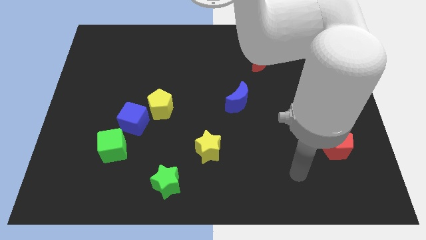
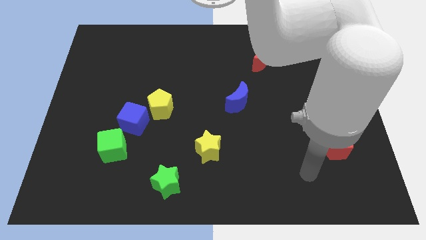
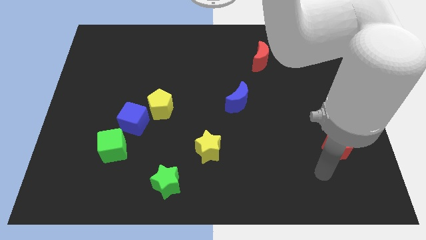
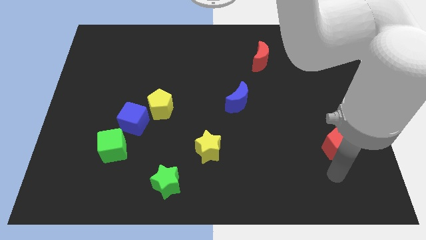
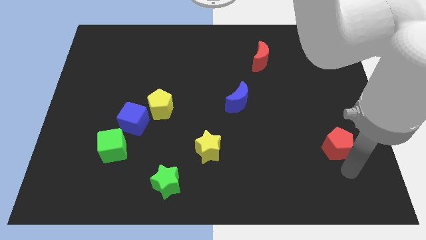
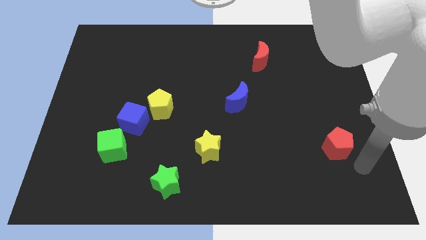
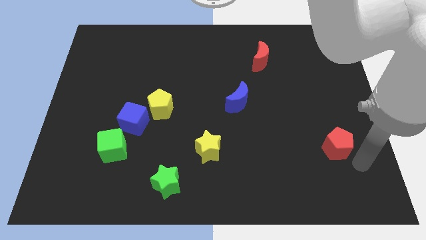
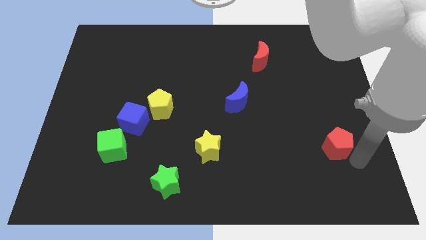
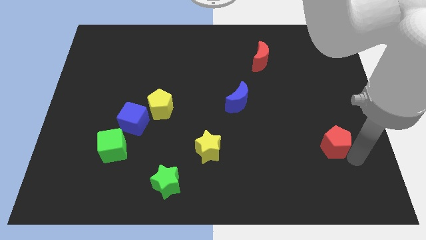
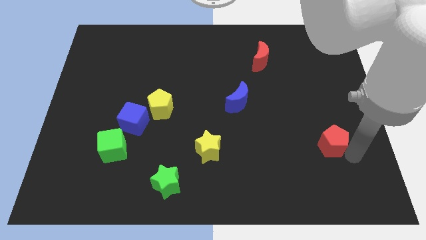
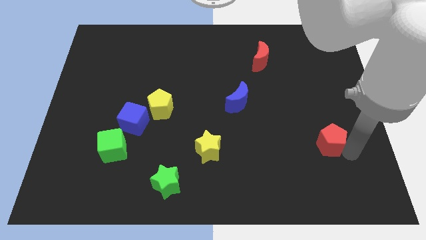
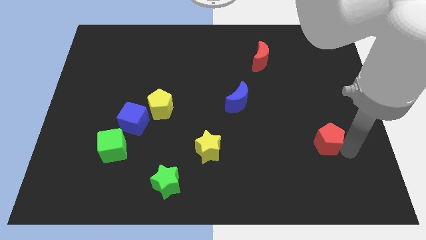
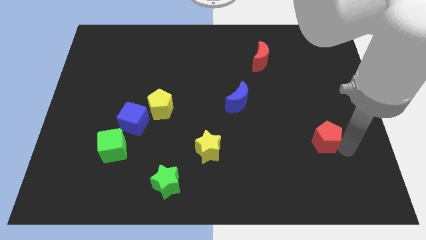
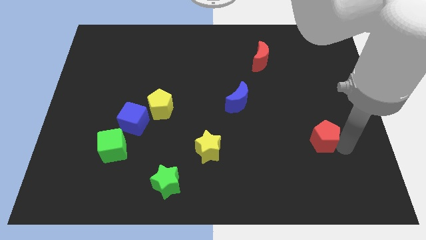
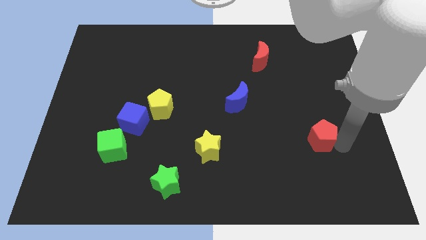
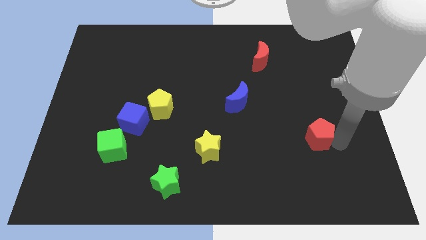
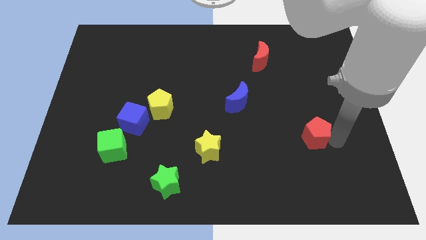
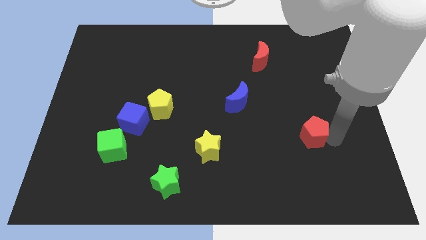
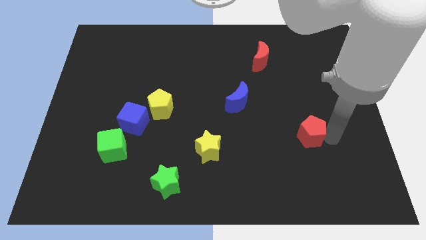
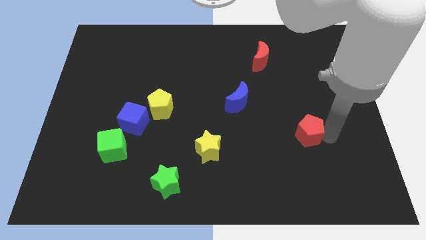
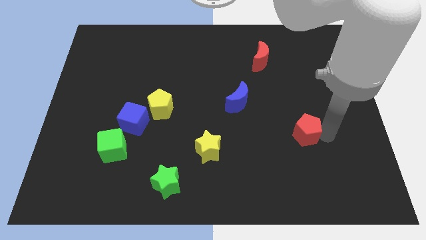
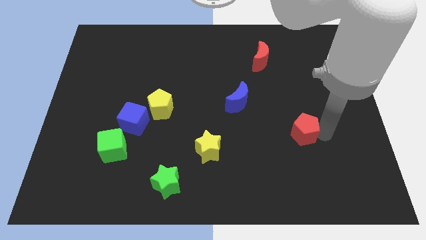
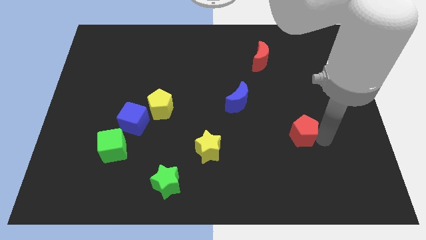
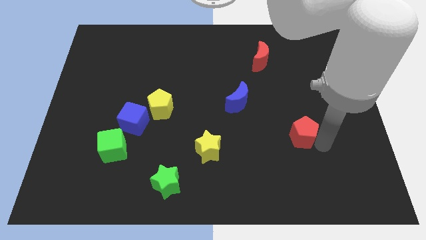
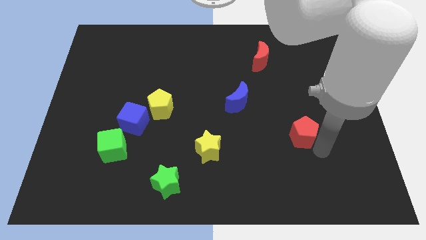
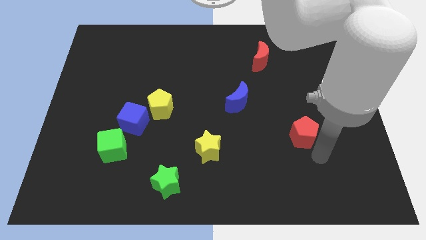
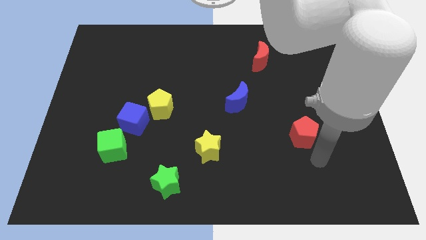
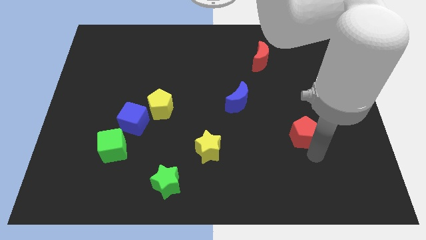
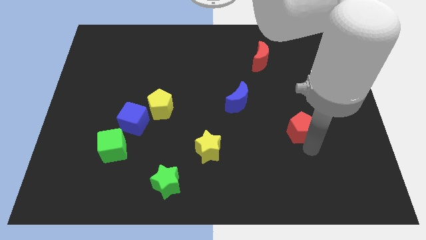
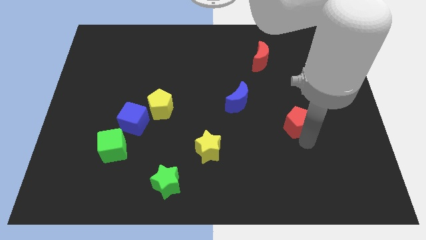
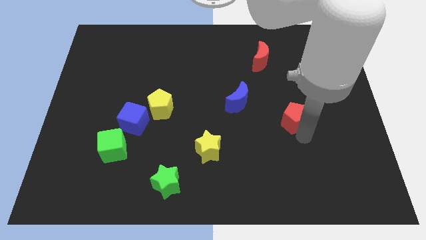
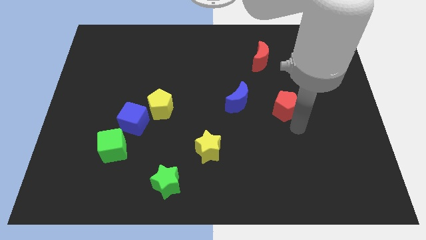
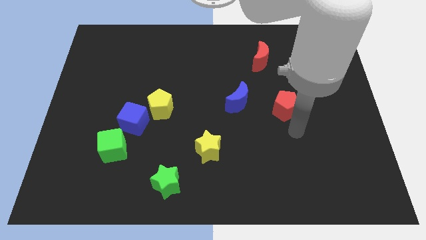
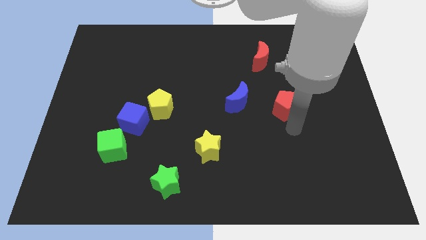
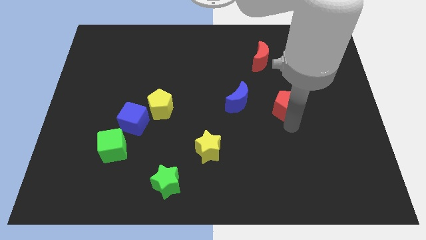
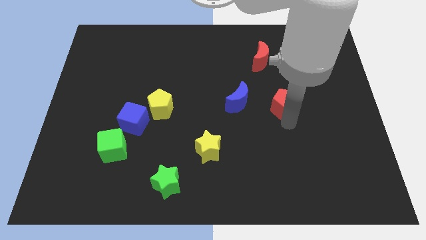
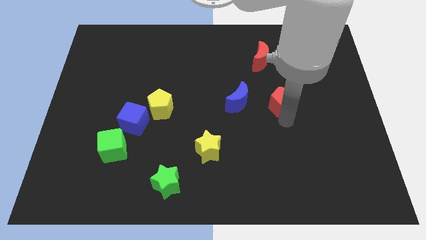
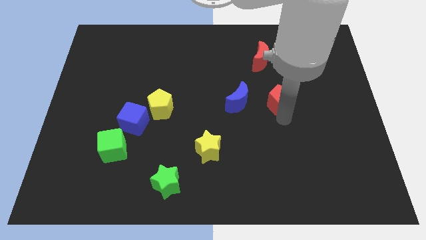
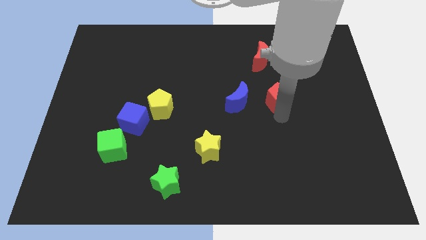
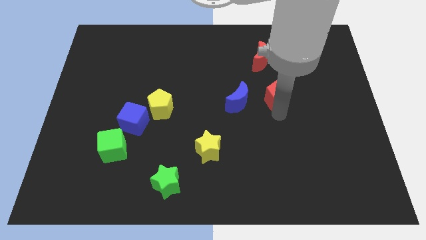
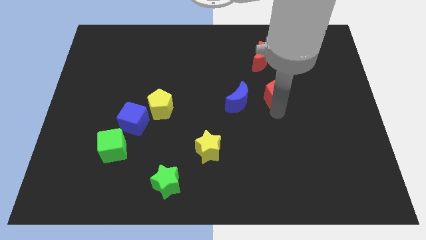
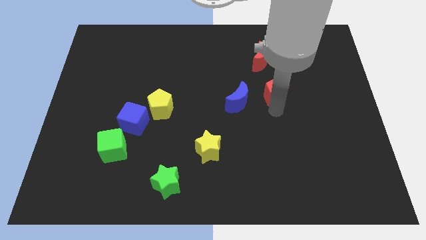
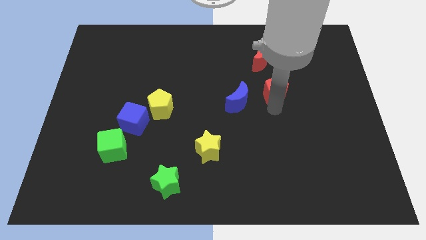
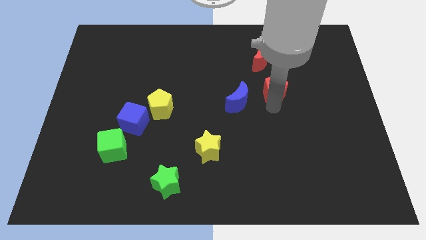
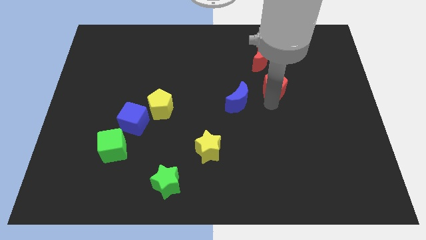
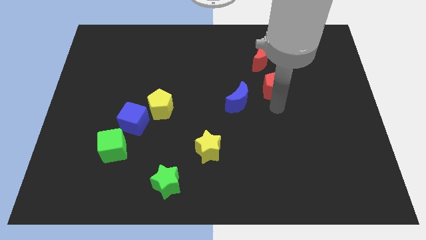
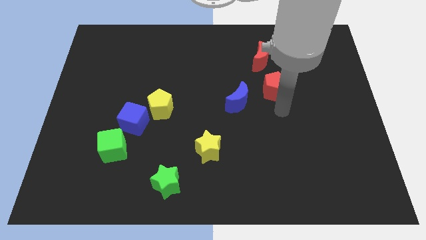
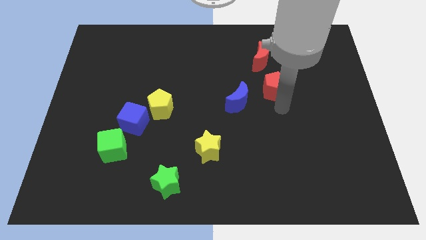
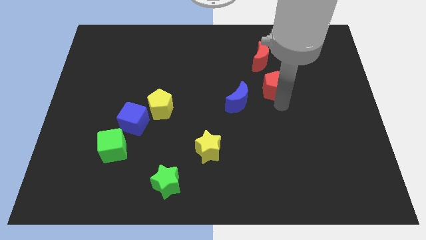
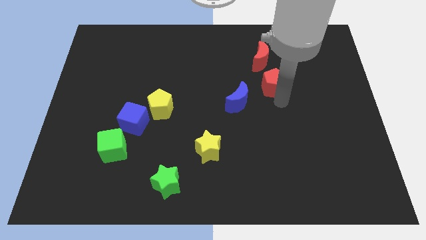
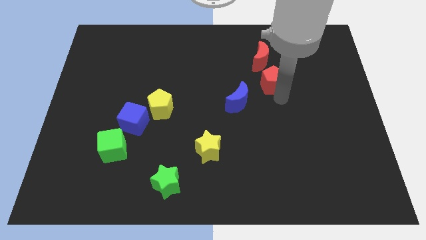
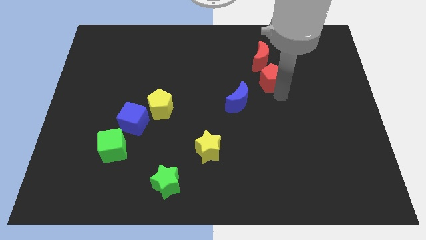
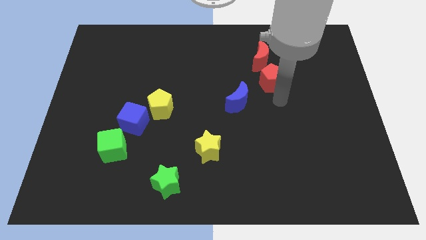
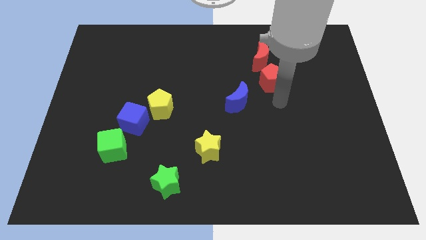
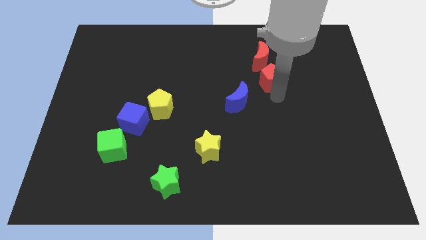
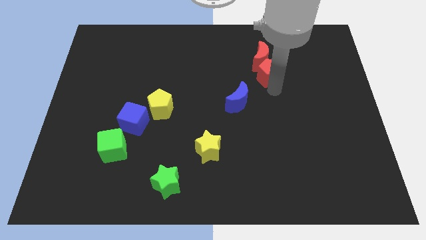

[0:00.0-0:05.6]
slide the red pentagon next to the red moon

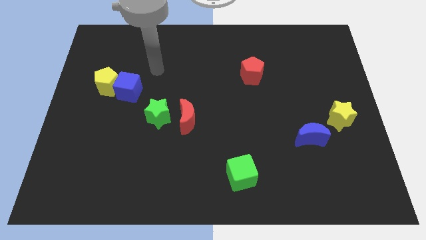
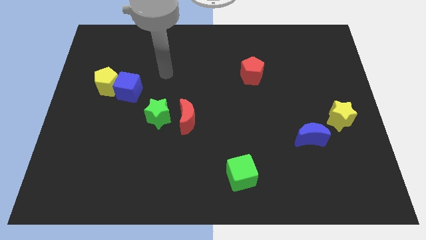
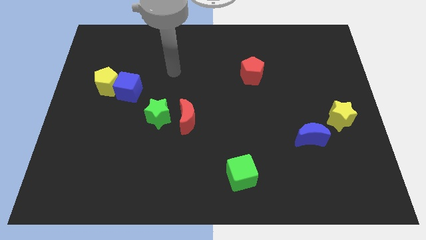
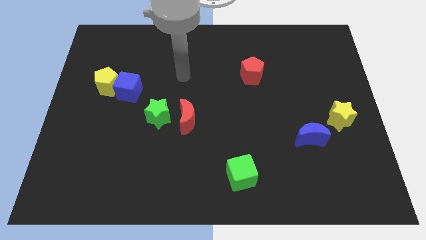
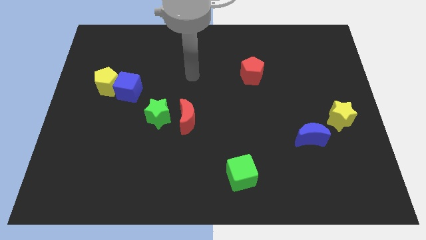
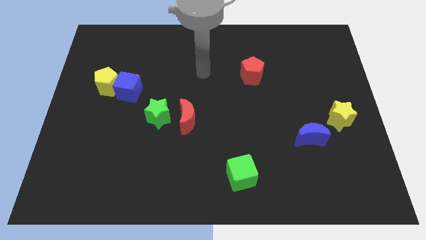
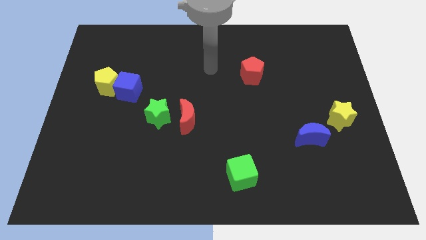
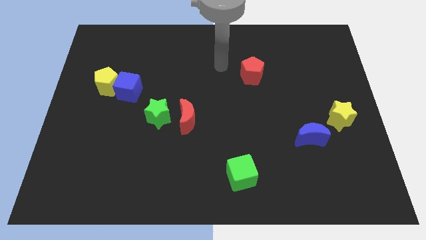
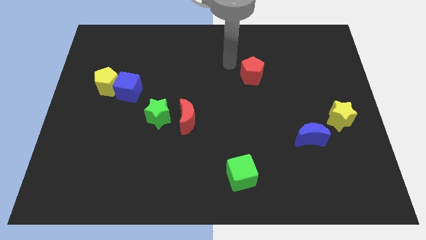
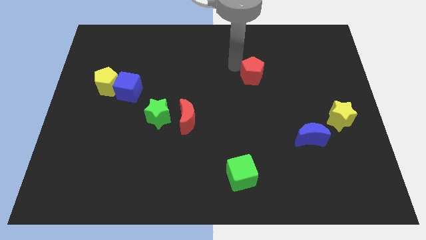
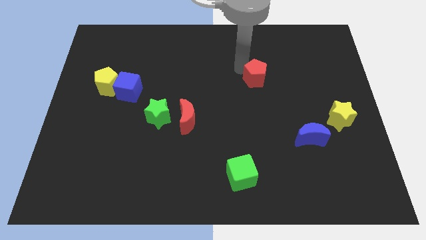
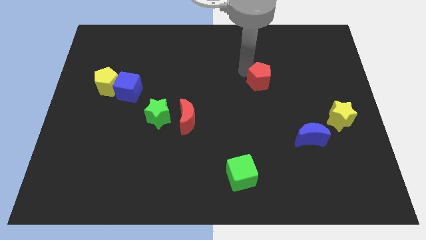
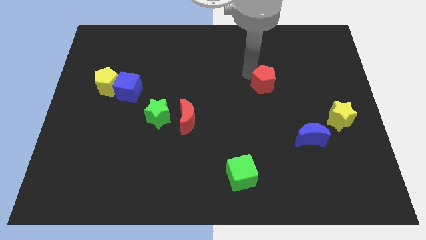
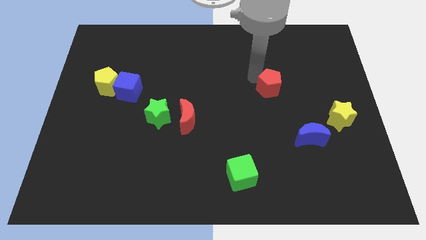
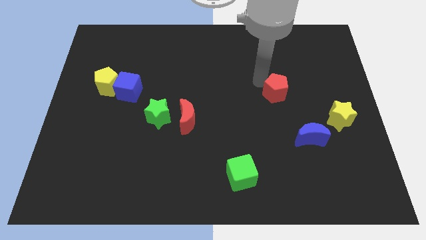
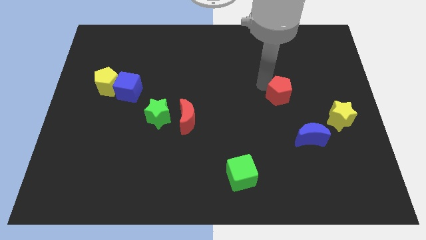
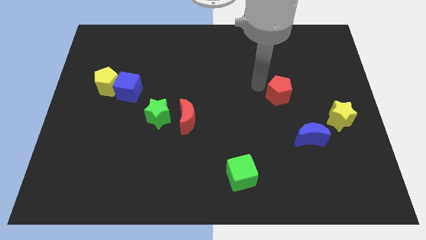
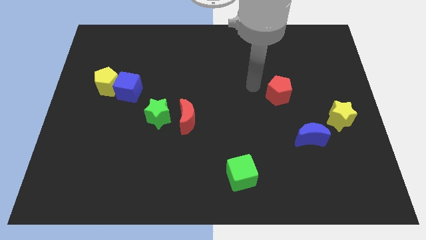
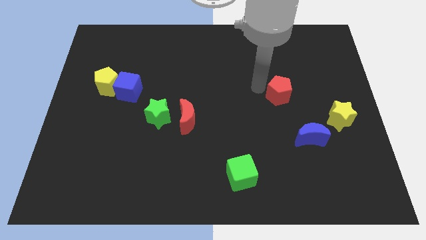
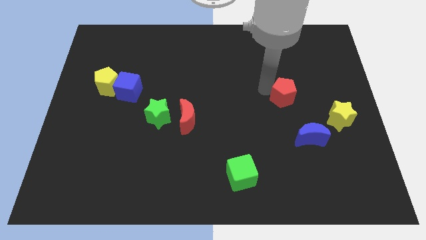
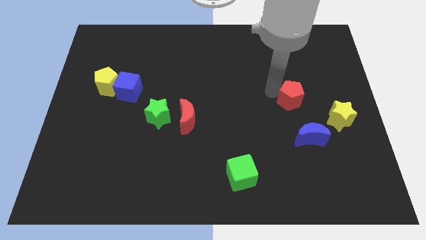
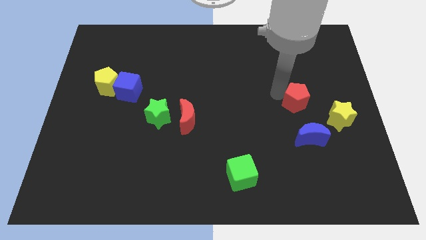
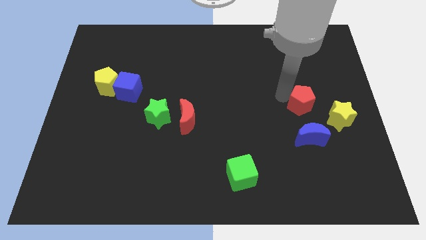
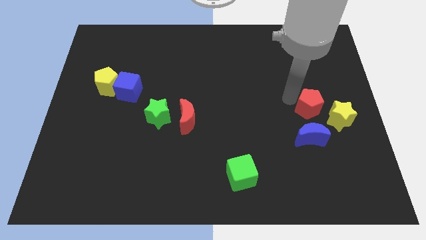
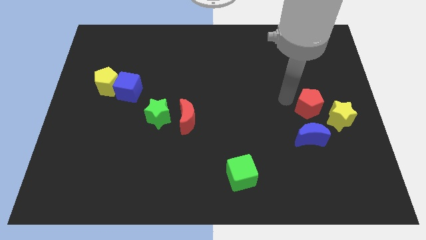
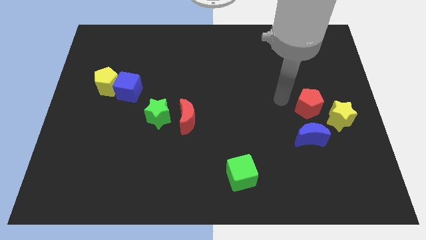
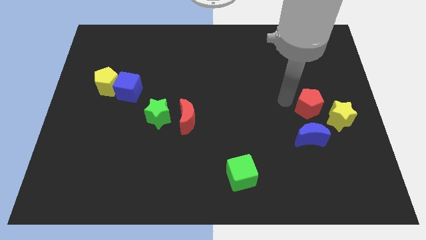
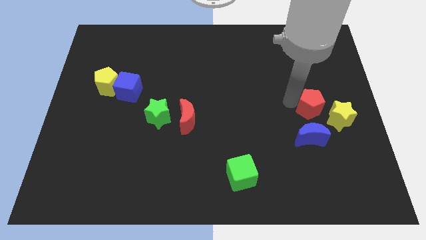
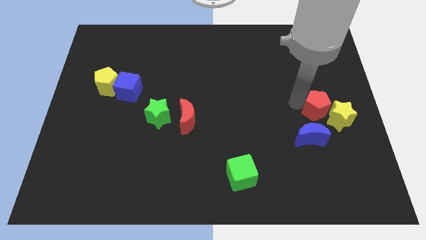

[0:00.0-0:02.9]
slide the red pentagon next to the yellow star
